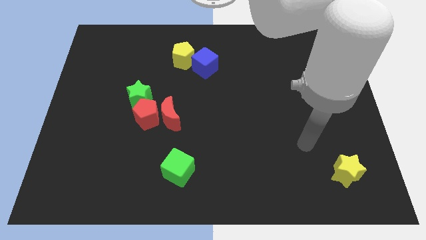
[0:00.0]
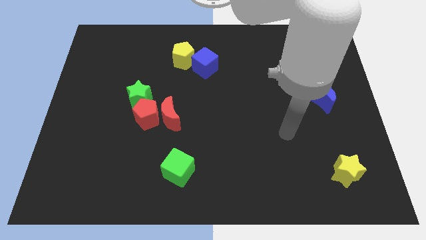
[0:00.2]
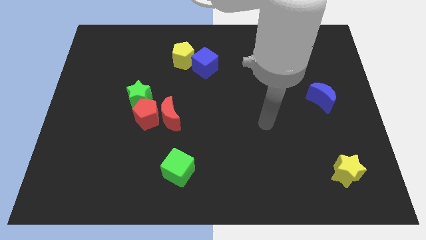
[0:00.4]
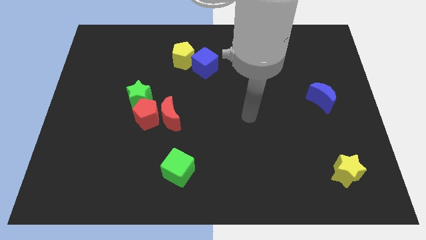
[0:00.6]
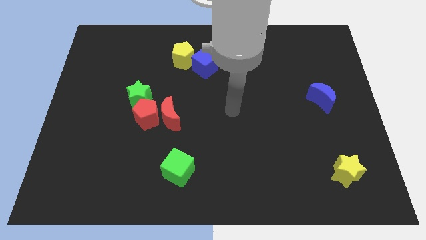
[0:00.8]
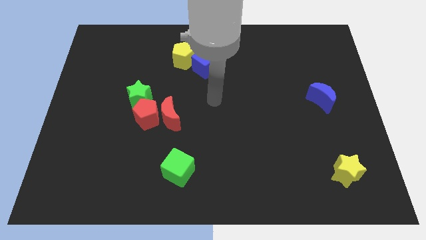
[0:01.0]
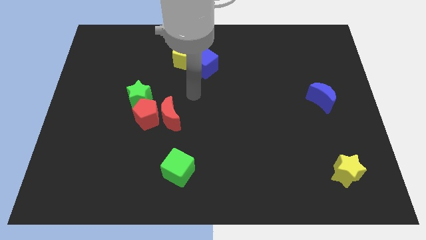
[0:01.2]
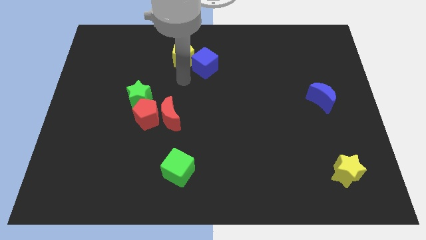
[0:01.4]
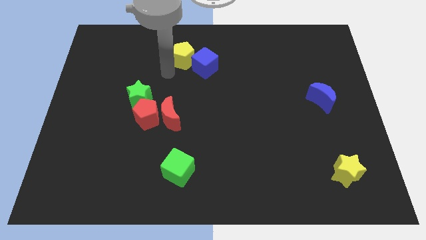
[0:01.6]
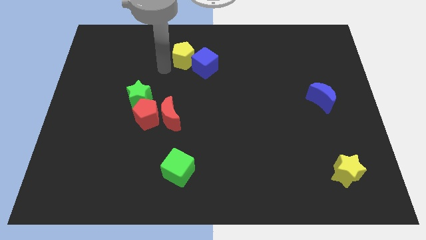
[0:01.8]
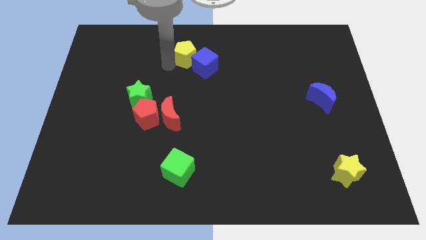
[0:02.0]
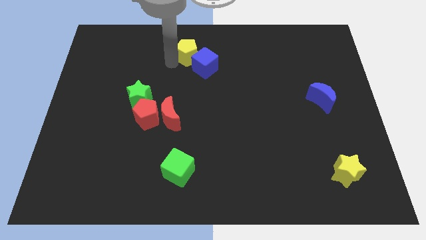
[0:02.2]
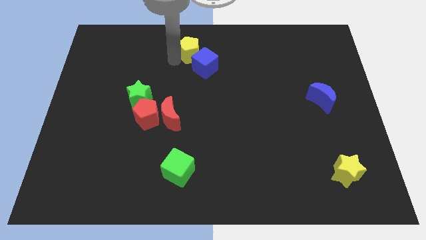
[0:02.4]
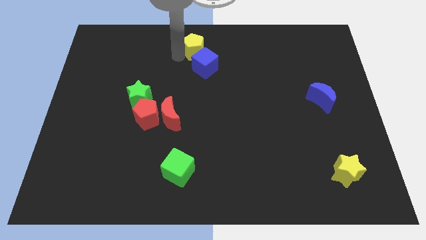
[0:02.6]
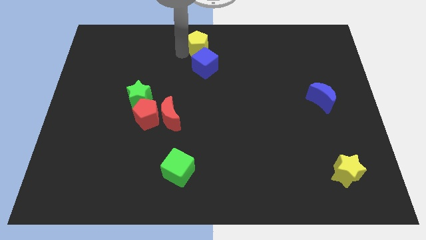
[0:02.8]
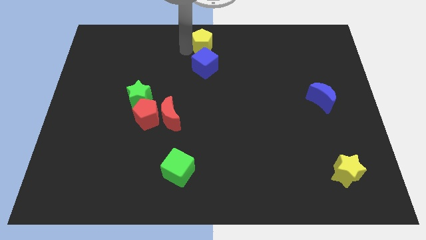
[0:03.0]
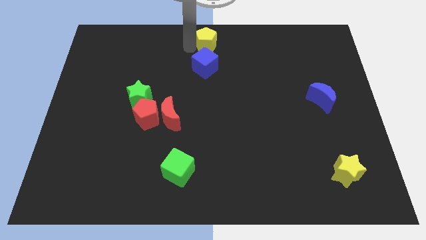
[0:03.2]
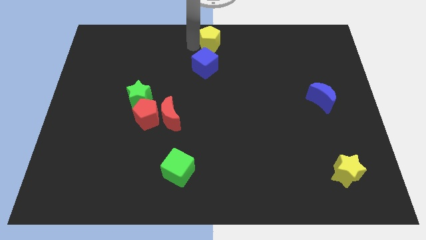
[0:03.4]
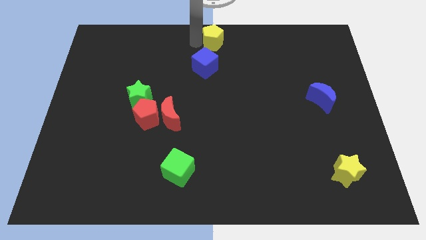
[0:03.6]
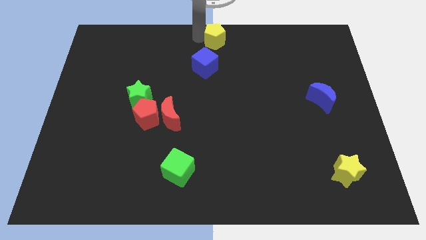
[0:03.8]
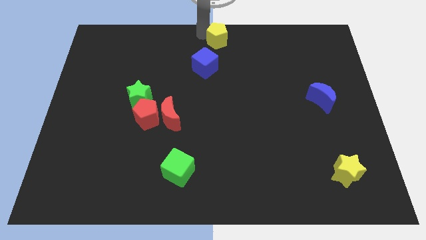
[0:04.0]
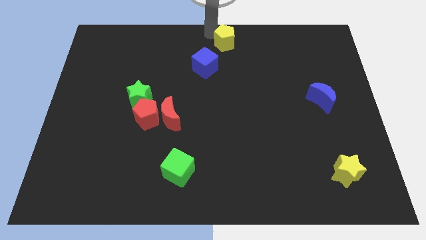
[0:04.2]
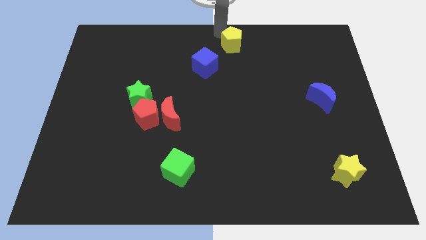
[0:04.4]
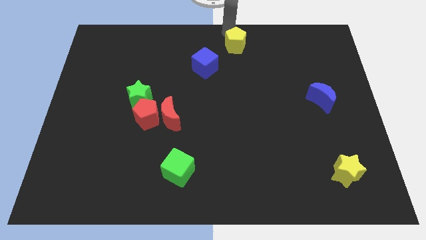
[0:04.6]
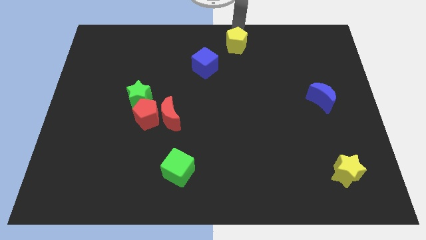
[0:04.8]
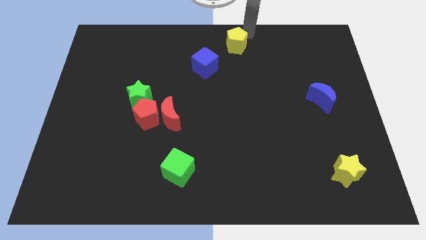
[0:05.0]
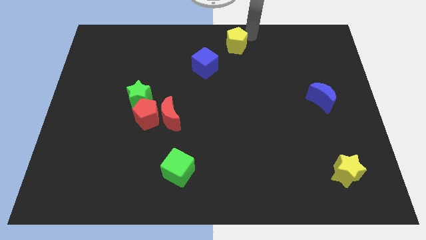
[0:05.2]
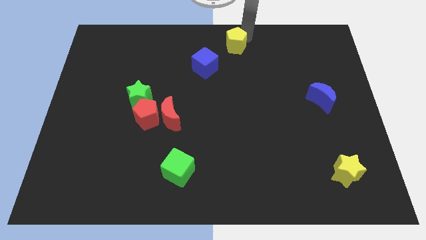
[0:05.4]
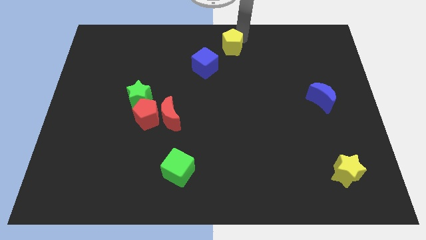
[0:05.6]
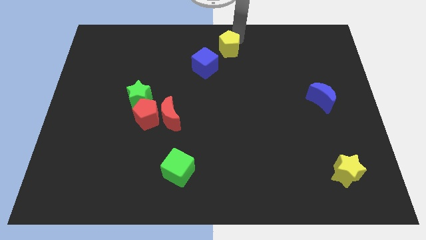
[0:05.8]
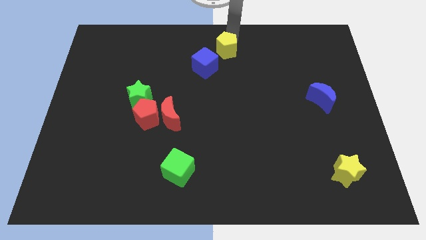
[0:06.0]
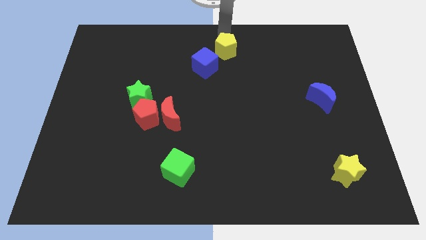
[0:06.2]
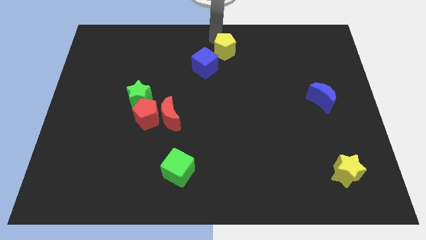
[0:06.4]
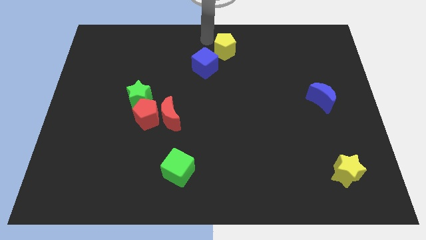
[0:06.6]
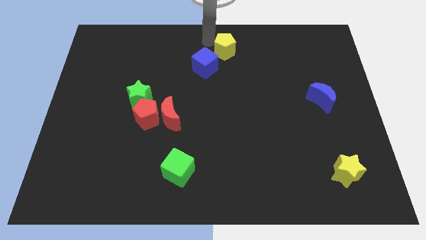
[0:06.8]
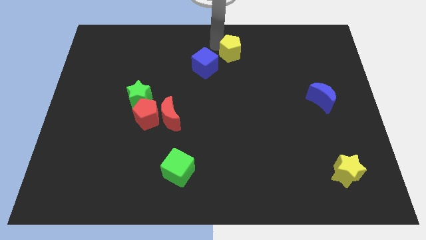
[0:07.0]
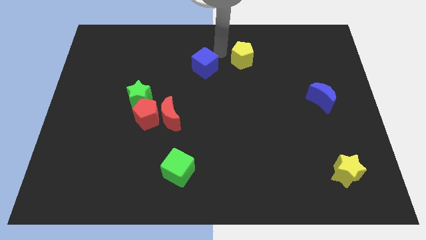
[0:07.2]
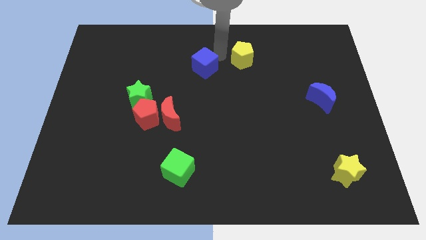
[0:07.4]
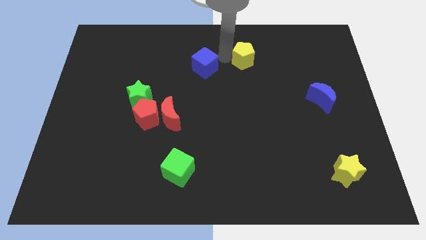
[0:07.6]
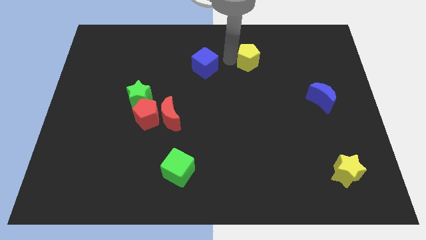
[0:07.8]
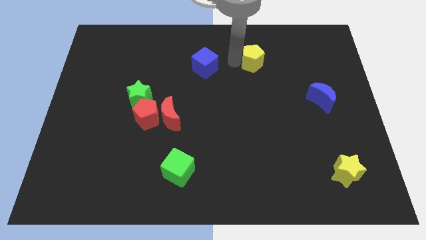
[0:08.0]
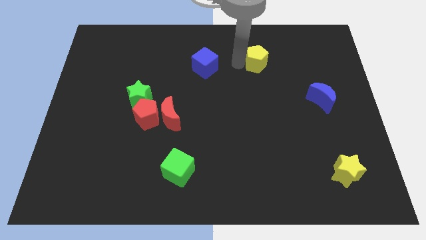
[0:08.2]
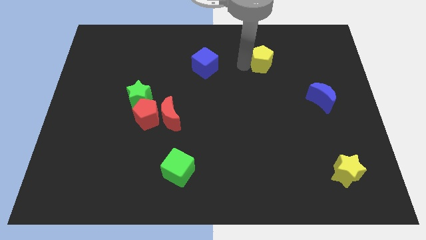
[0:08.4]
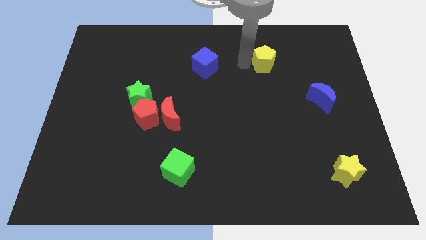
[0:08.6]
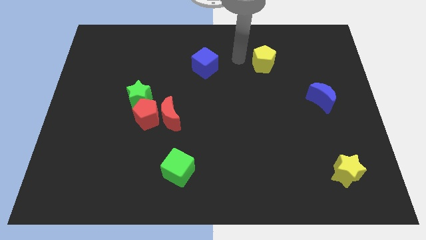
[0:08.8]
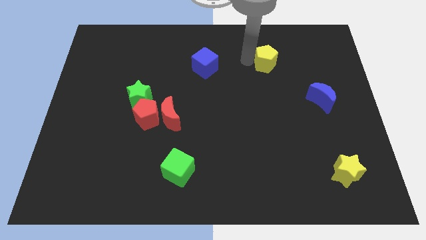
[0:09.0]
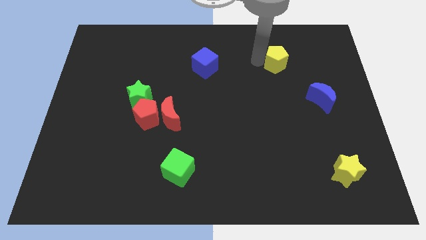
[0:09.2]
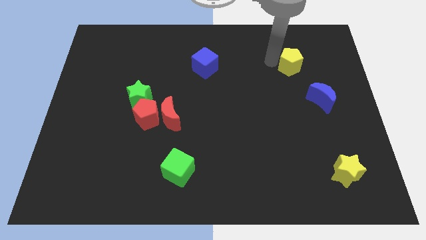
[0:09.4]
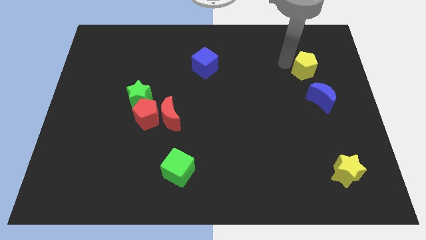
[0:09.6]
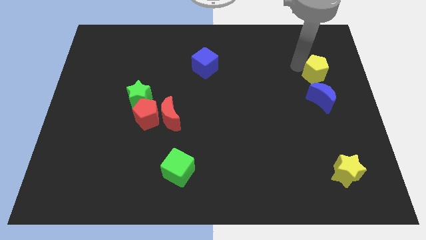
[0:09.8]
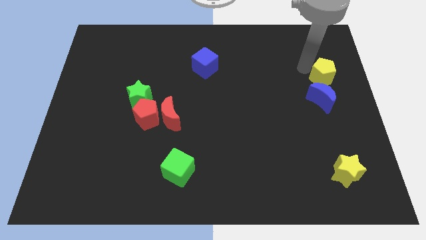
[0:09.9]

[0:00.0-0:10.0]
move the yellow pentagon to the center right

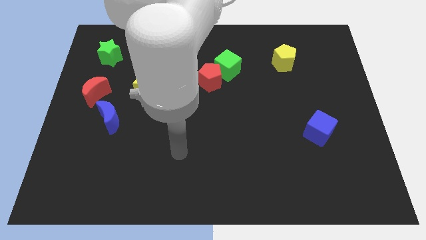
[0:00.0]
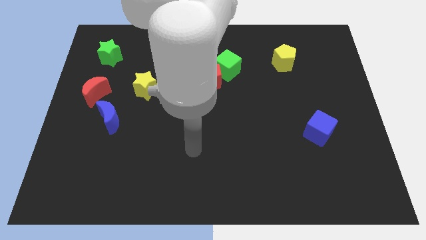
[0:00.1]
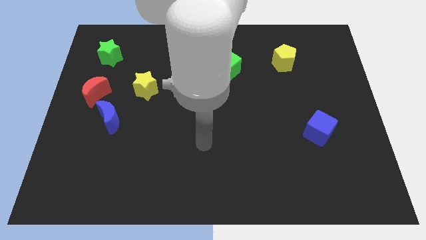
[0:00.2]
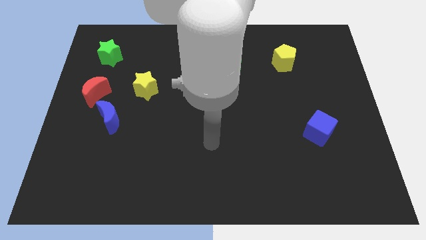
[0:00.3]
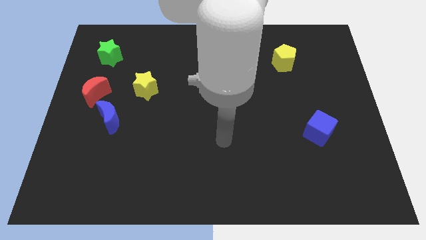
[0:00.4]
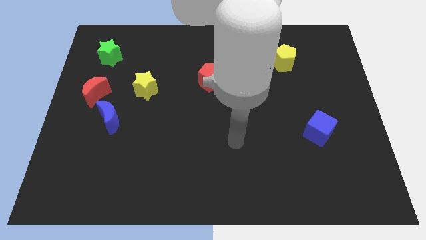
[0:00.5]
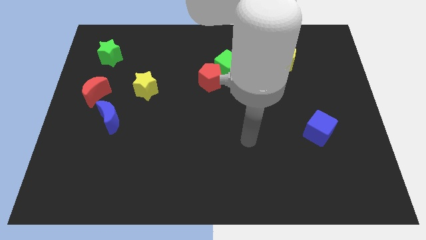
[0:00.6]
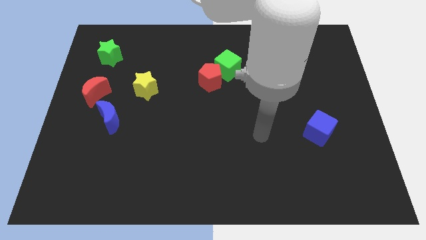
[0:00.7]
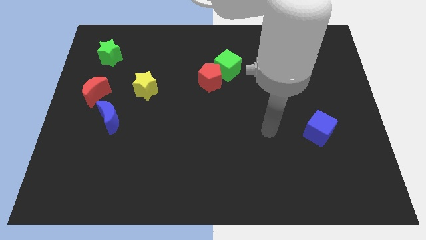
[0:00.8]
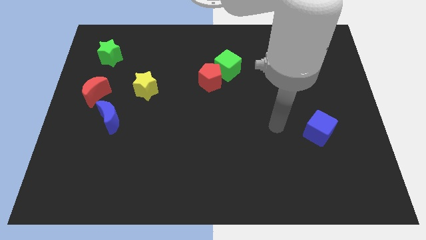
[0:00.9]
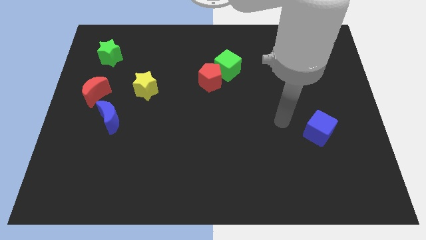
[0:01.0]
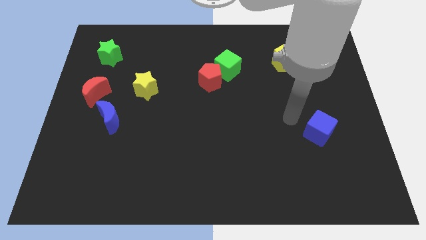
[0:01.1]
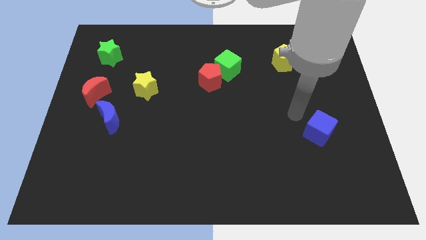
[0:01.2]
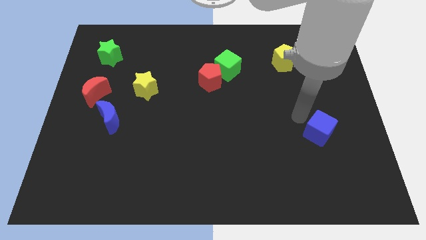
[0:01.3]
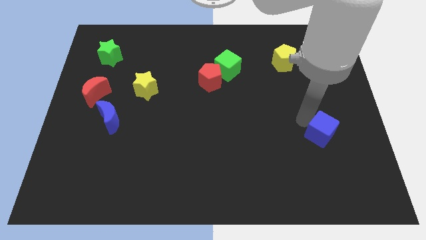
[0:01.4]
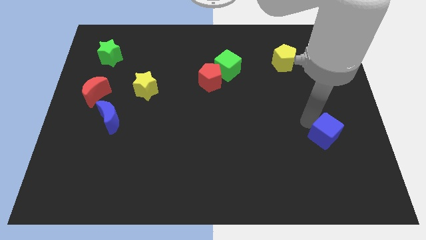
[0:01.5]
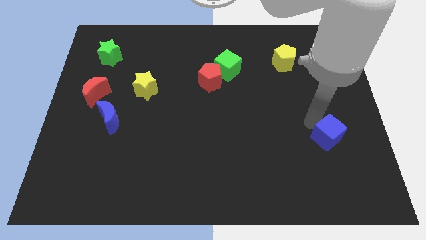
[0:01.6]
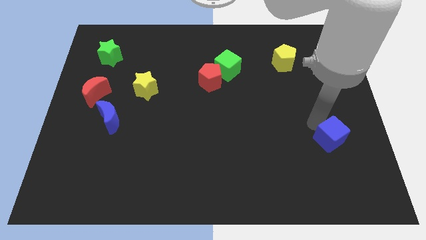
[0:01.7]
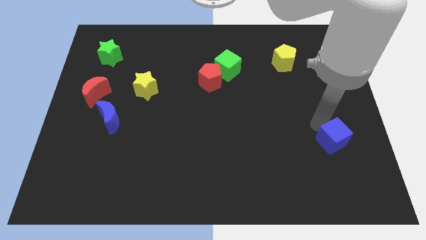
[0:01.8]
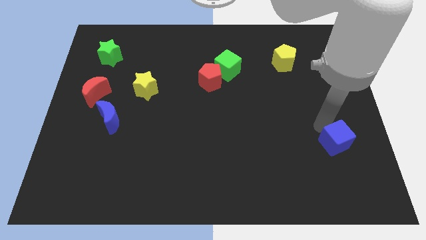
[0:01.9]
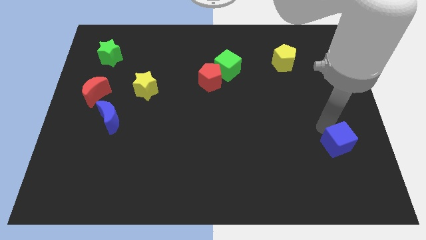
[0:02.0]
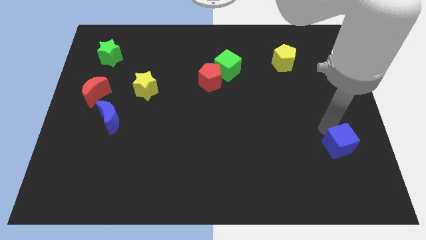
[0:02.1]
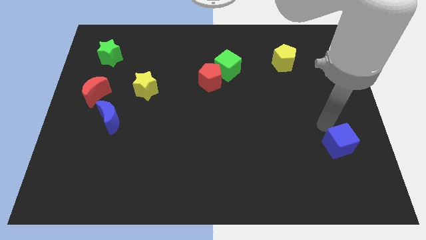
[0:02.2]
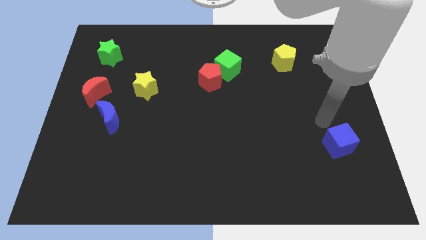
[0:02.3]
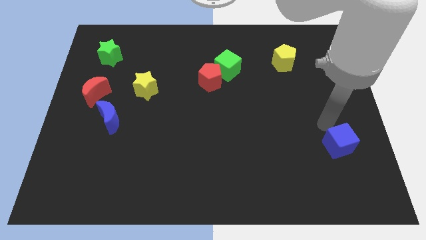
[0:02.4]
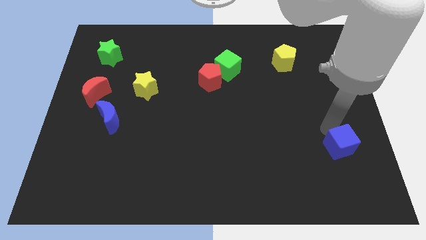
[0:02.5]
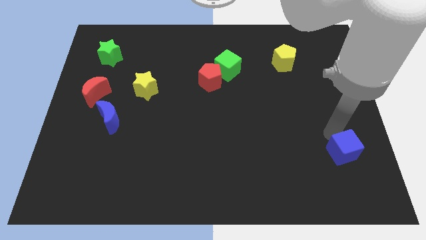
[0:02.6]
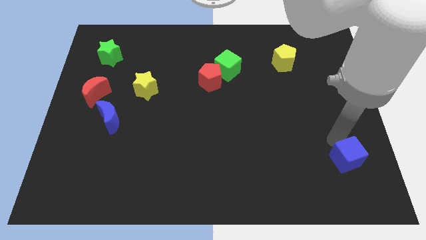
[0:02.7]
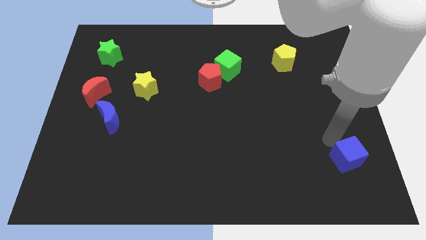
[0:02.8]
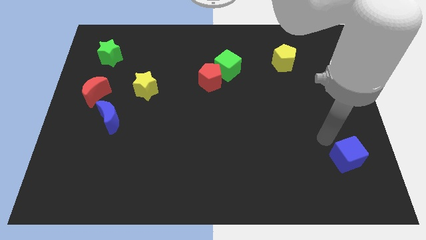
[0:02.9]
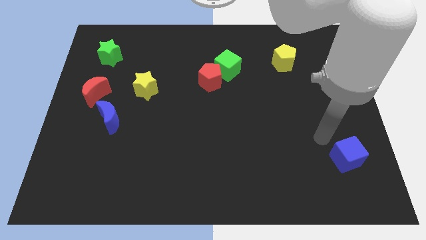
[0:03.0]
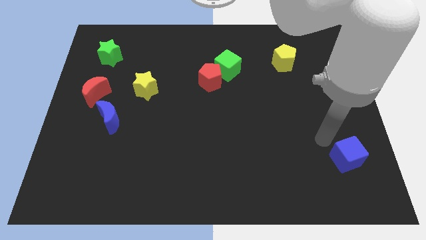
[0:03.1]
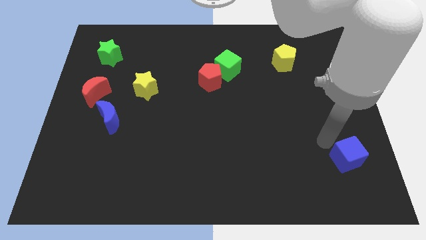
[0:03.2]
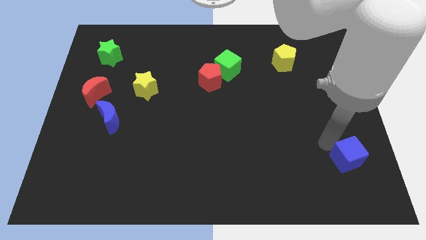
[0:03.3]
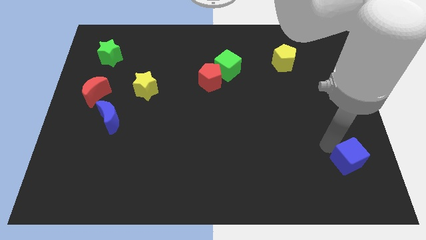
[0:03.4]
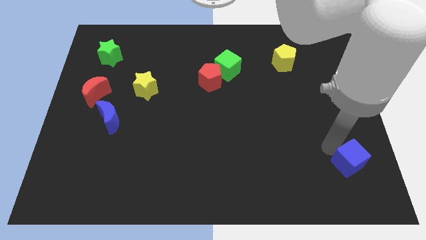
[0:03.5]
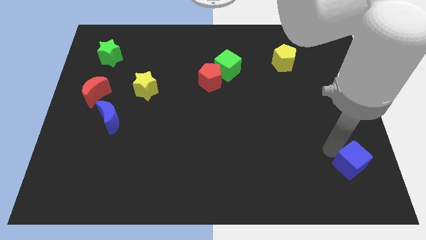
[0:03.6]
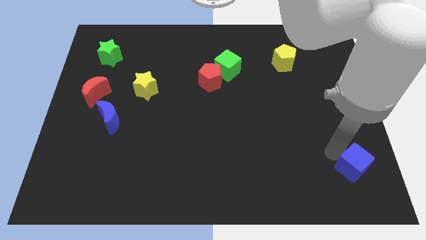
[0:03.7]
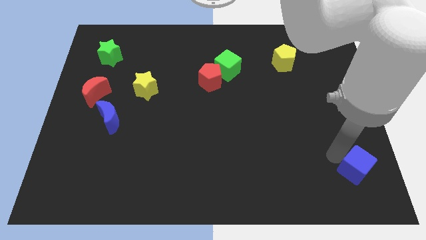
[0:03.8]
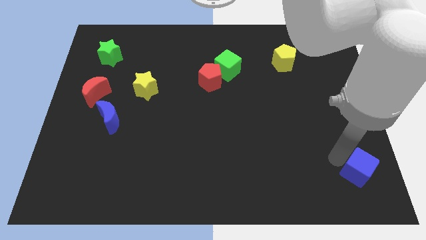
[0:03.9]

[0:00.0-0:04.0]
slide the blue cube to the bottom right of the board
